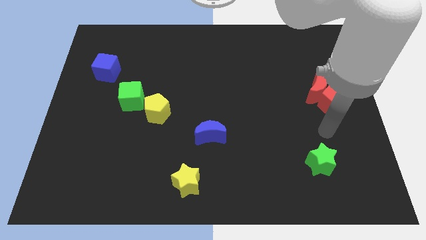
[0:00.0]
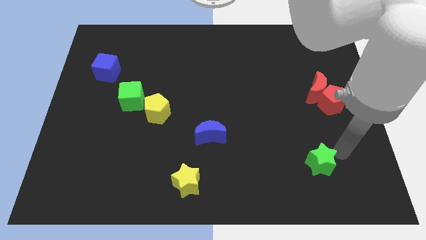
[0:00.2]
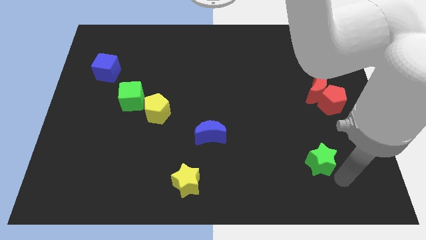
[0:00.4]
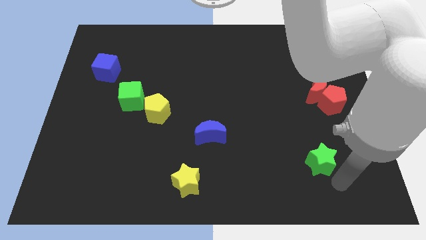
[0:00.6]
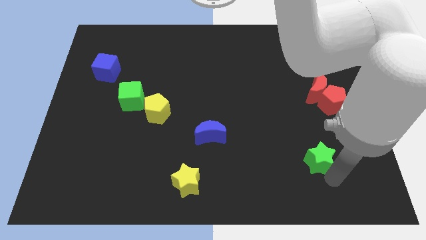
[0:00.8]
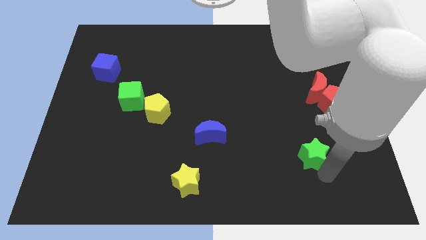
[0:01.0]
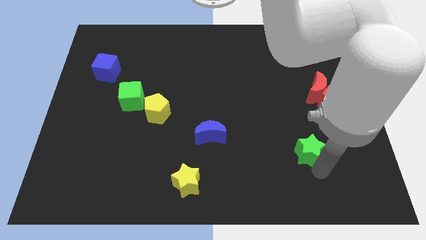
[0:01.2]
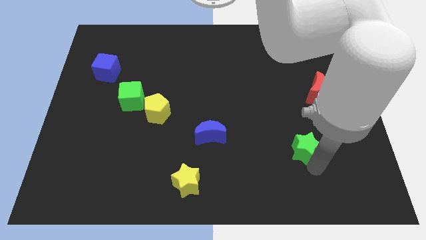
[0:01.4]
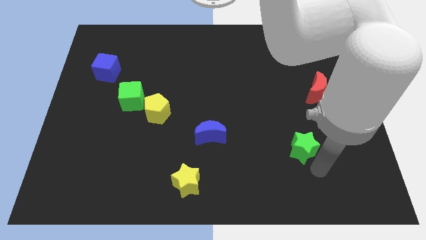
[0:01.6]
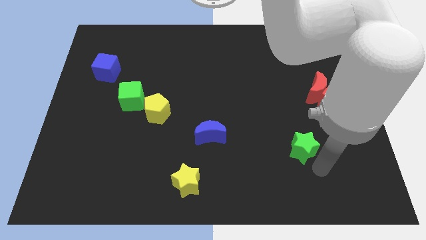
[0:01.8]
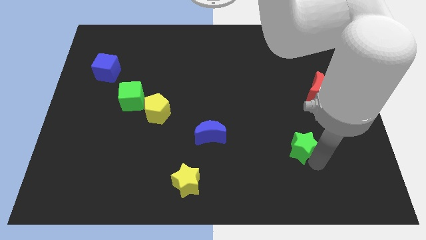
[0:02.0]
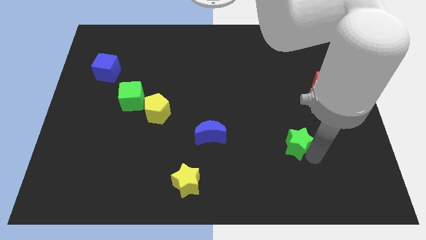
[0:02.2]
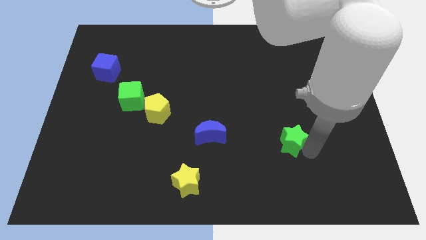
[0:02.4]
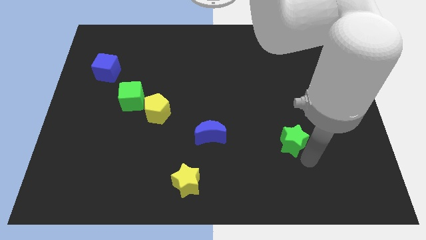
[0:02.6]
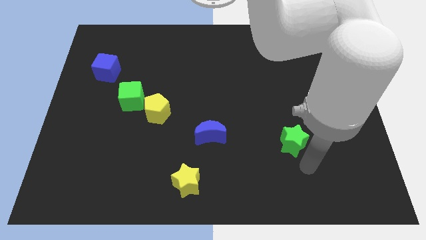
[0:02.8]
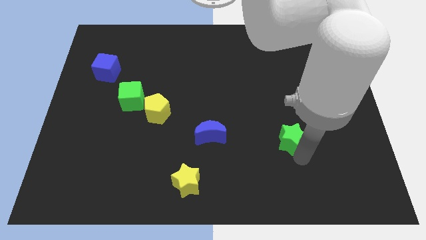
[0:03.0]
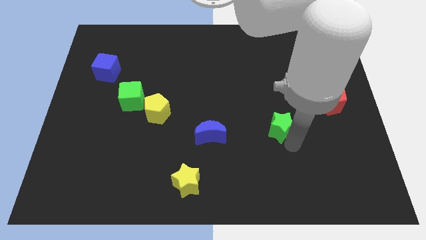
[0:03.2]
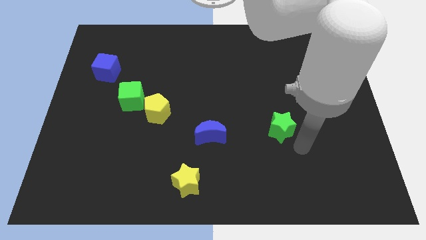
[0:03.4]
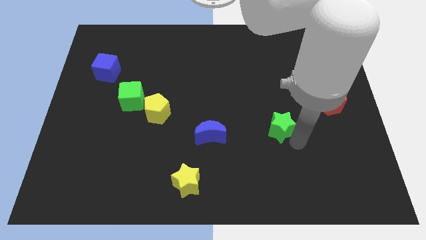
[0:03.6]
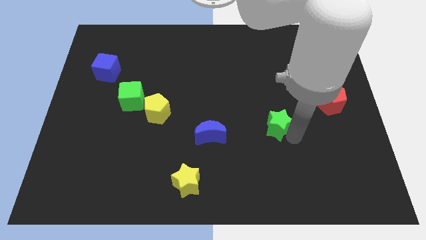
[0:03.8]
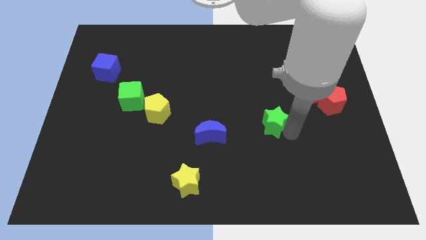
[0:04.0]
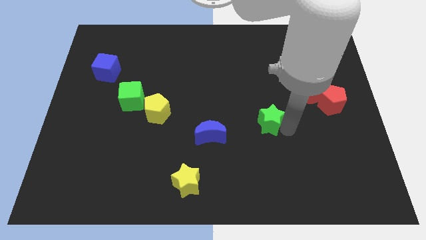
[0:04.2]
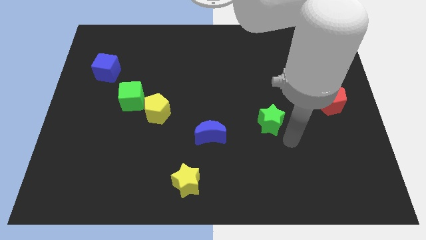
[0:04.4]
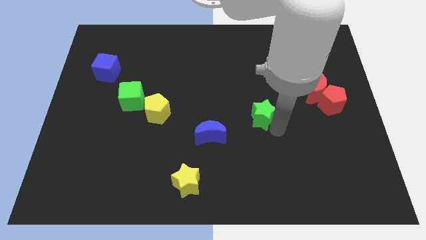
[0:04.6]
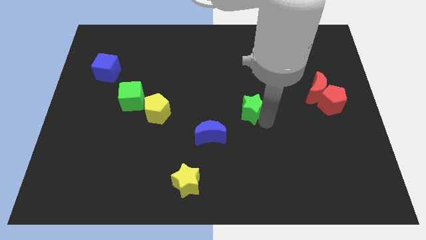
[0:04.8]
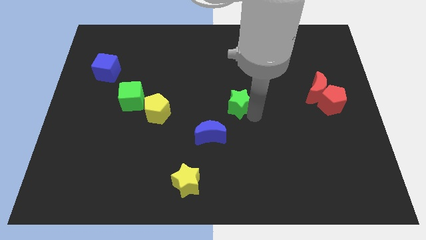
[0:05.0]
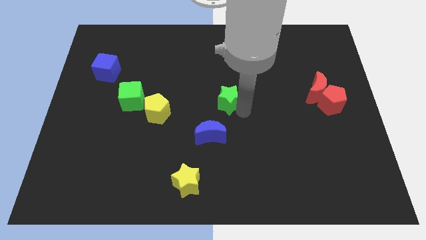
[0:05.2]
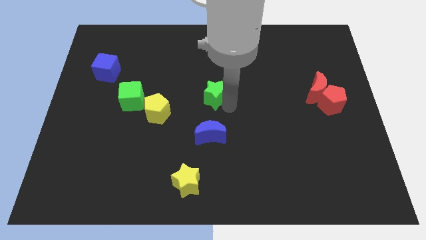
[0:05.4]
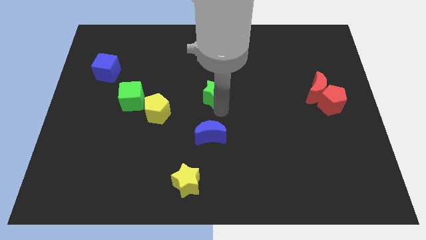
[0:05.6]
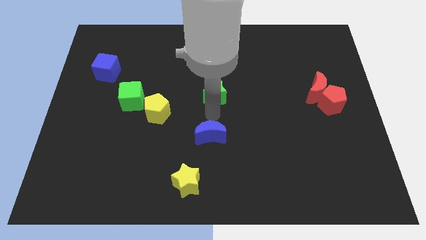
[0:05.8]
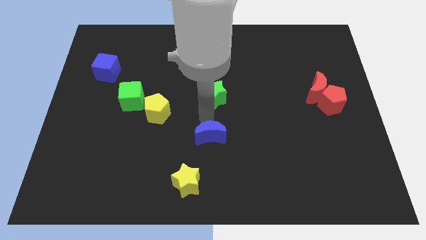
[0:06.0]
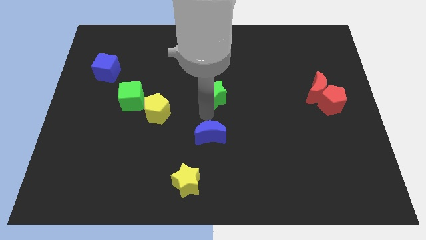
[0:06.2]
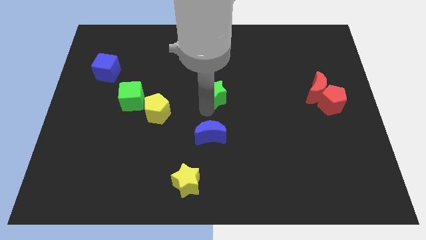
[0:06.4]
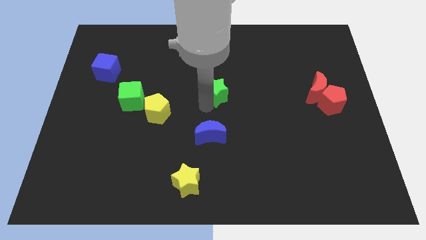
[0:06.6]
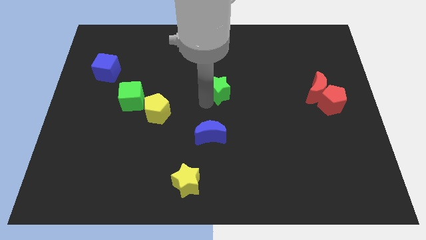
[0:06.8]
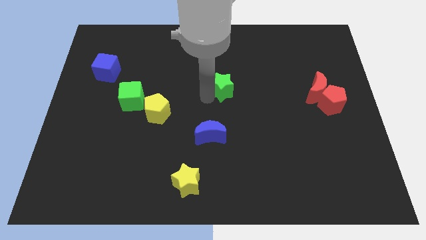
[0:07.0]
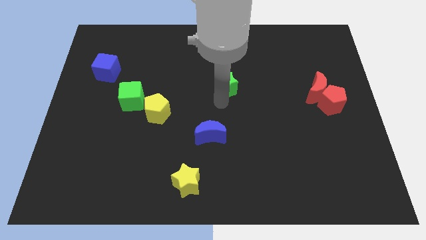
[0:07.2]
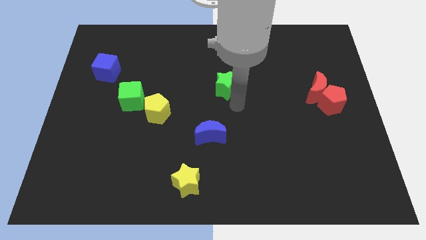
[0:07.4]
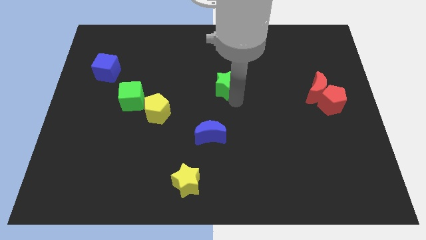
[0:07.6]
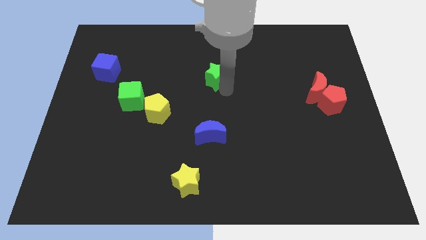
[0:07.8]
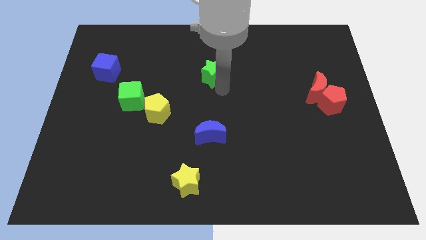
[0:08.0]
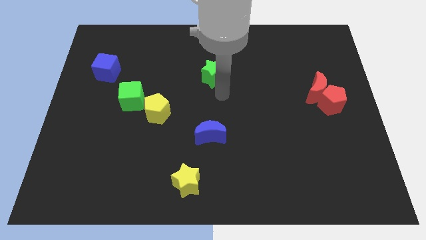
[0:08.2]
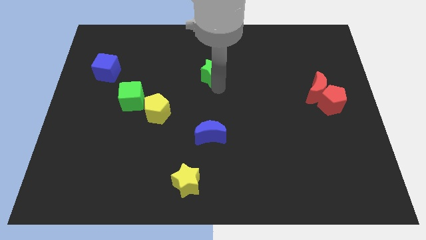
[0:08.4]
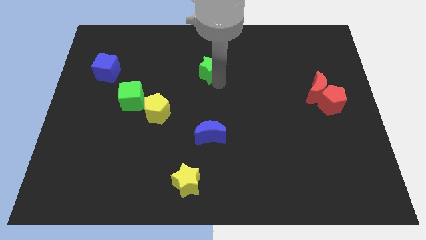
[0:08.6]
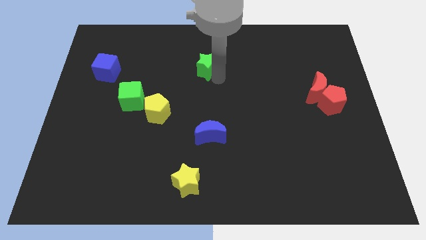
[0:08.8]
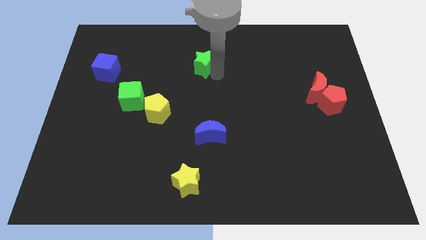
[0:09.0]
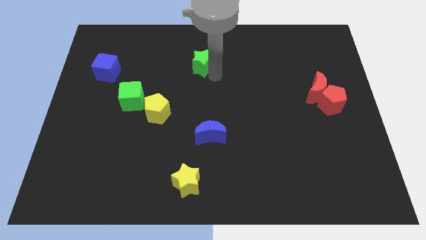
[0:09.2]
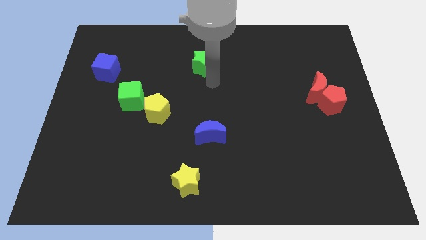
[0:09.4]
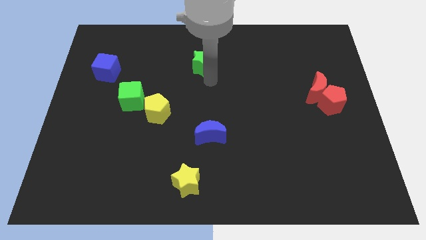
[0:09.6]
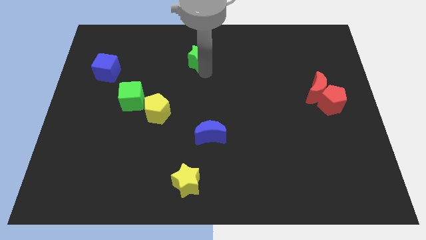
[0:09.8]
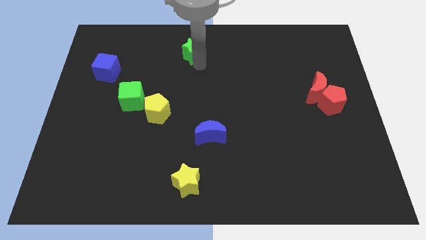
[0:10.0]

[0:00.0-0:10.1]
push the green star to the top

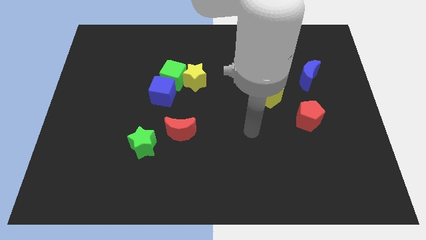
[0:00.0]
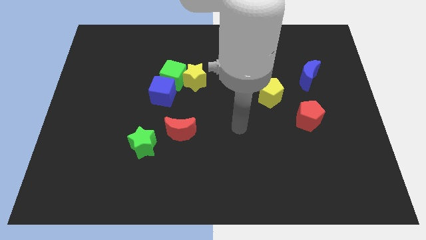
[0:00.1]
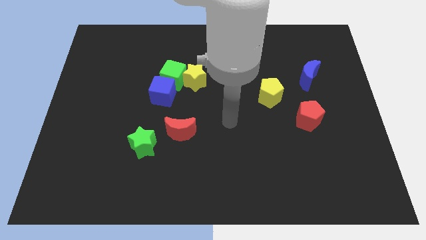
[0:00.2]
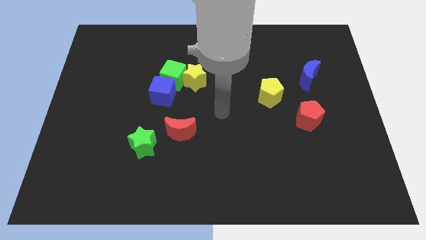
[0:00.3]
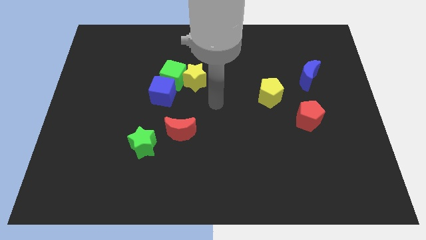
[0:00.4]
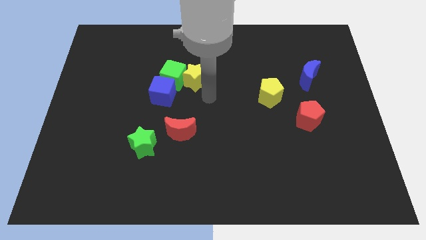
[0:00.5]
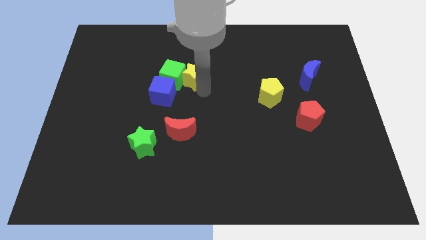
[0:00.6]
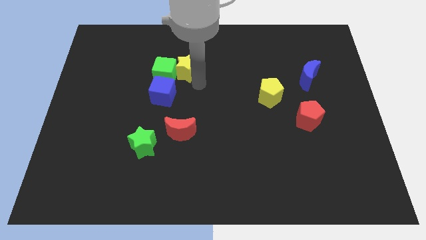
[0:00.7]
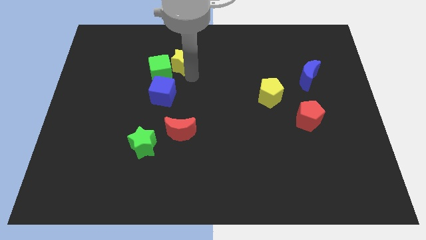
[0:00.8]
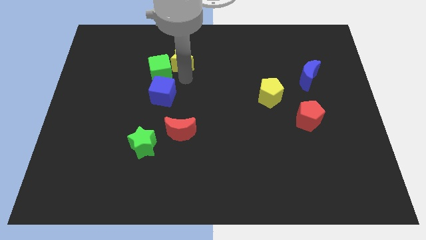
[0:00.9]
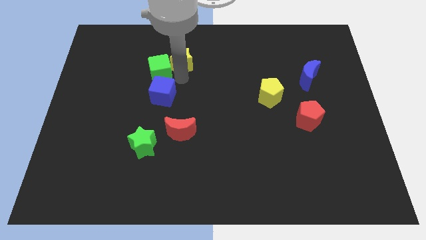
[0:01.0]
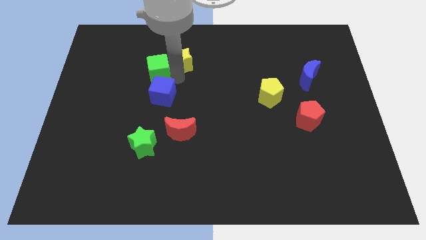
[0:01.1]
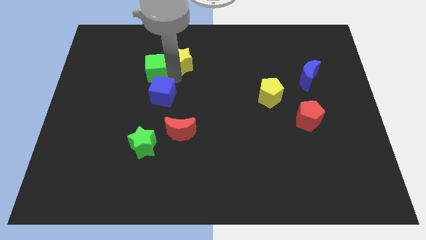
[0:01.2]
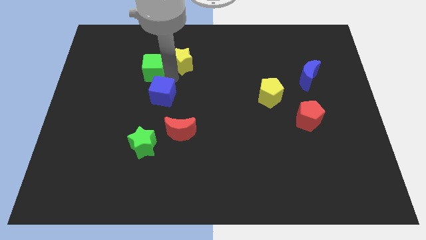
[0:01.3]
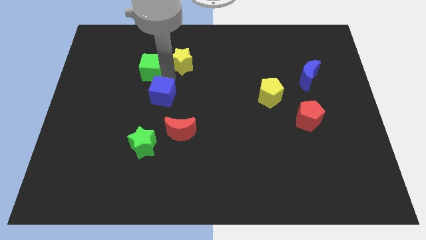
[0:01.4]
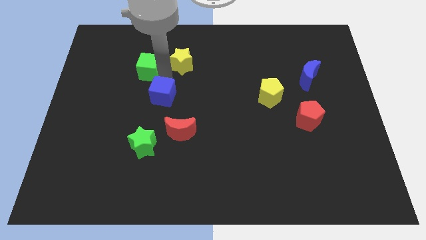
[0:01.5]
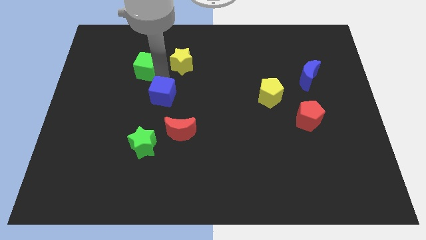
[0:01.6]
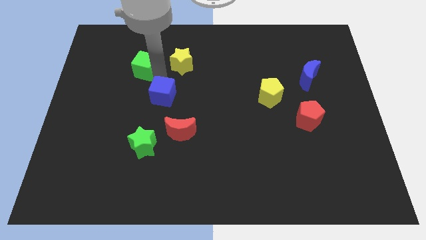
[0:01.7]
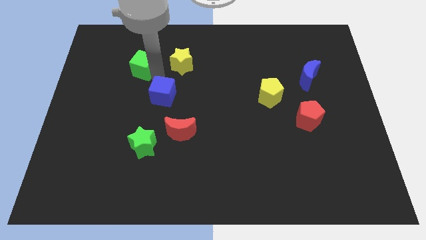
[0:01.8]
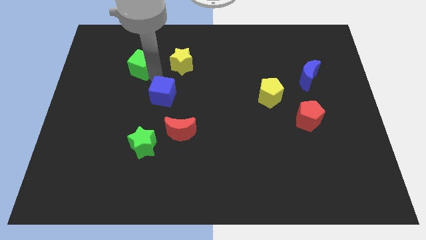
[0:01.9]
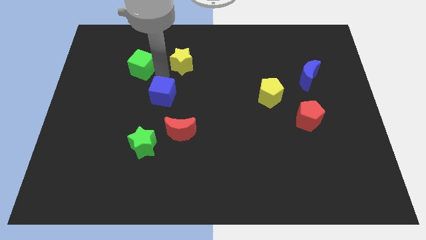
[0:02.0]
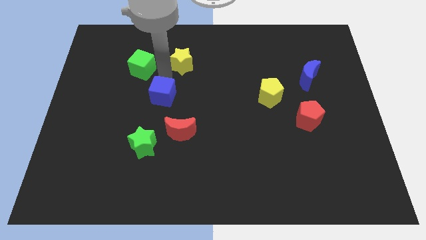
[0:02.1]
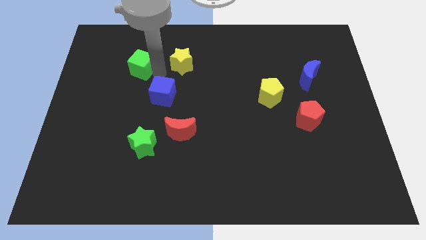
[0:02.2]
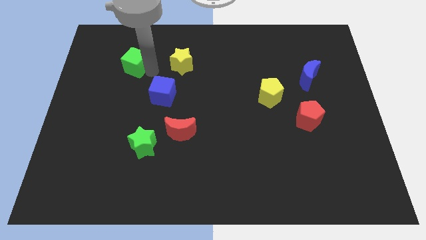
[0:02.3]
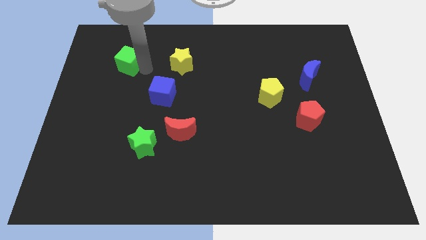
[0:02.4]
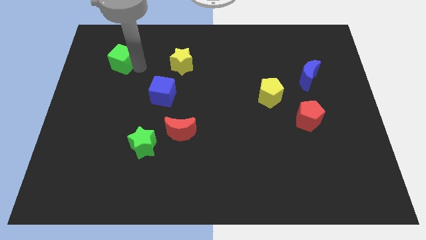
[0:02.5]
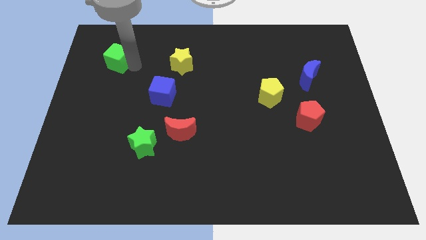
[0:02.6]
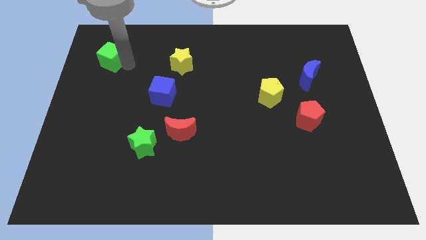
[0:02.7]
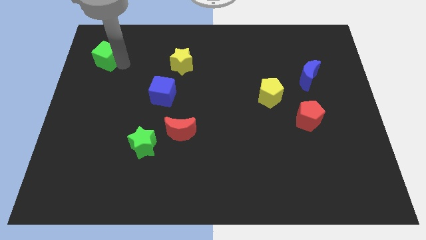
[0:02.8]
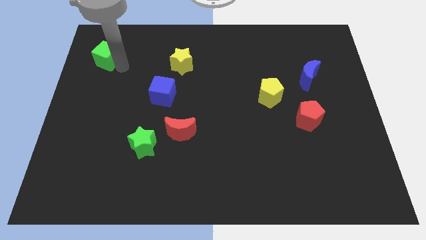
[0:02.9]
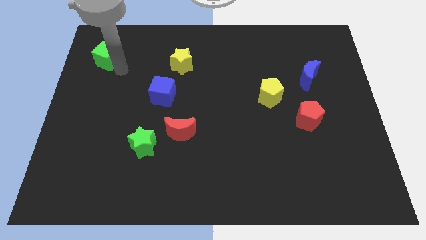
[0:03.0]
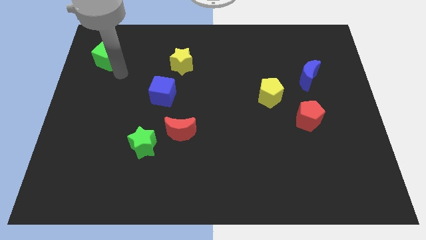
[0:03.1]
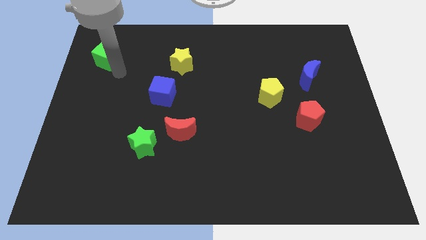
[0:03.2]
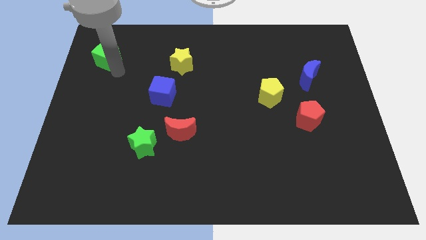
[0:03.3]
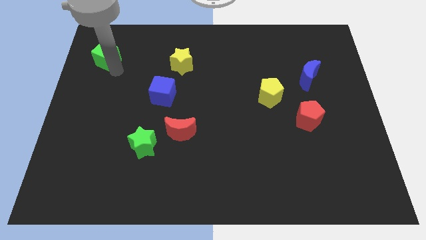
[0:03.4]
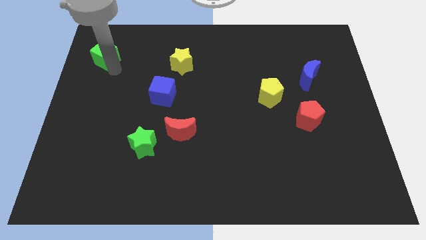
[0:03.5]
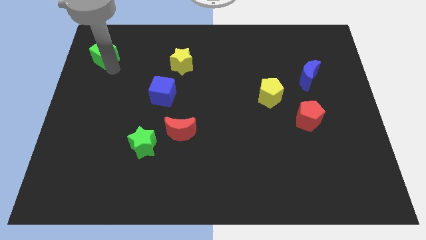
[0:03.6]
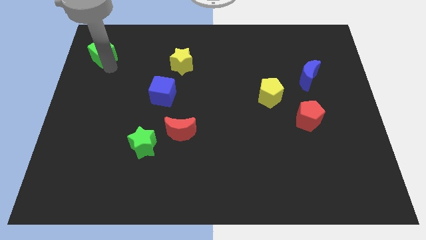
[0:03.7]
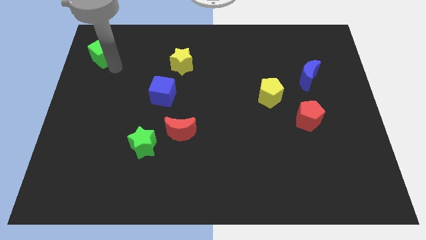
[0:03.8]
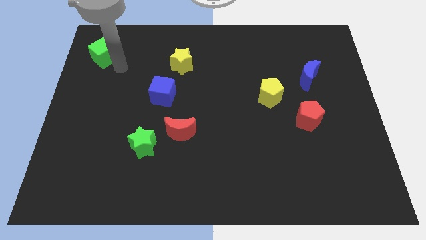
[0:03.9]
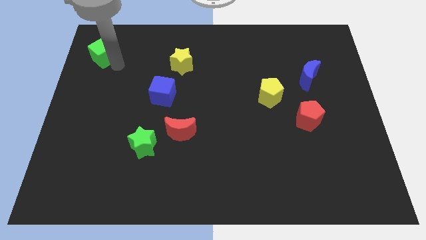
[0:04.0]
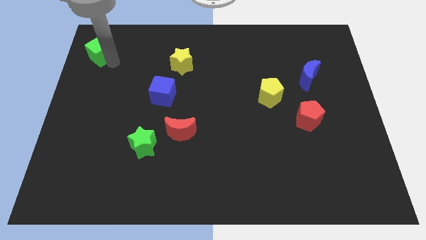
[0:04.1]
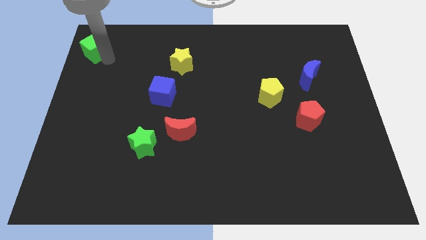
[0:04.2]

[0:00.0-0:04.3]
slide the green cube to the top left
